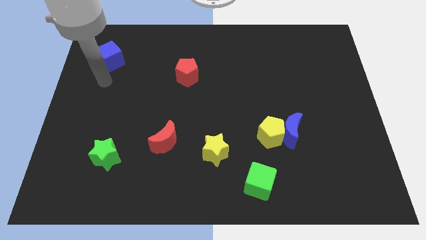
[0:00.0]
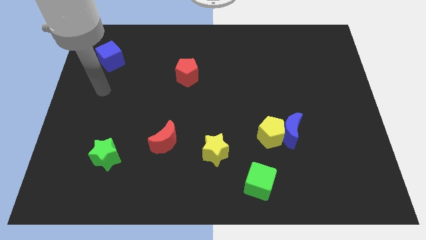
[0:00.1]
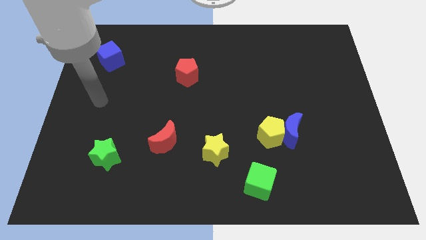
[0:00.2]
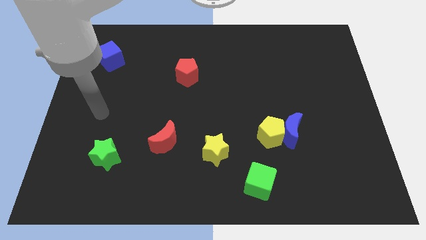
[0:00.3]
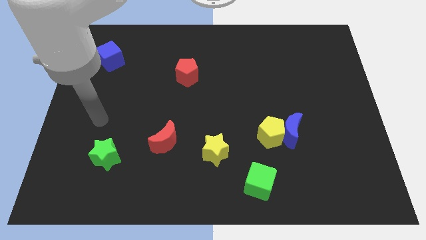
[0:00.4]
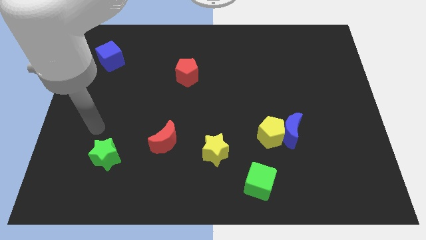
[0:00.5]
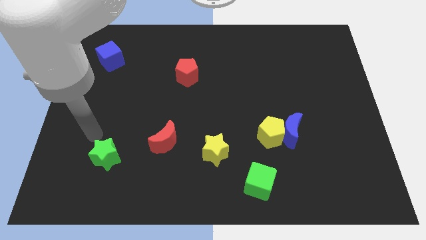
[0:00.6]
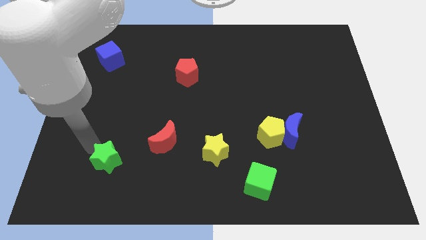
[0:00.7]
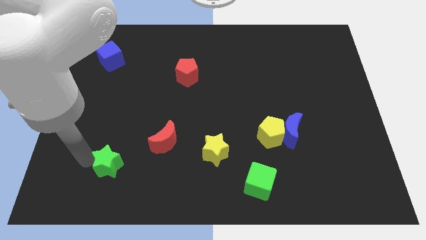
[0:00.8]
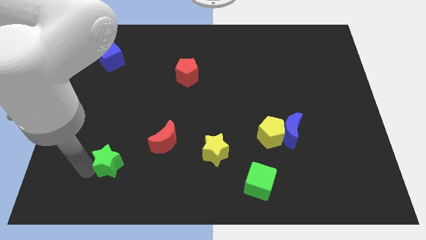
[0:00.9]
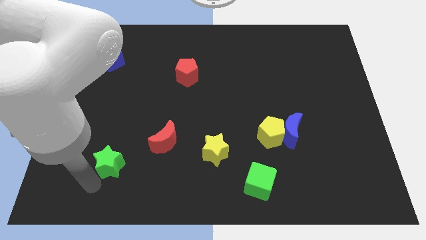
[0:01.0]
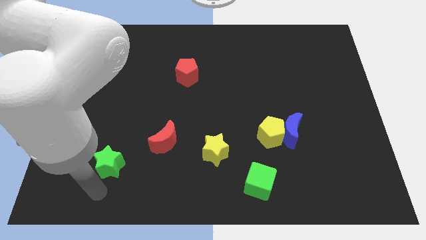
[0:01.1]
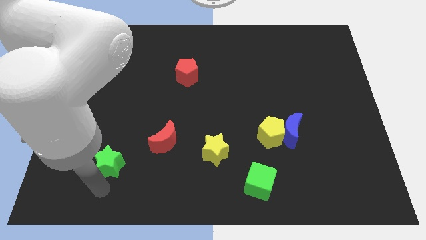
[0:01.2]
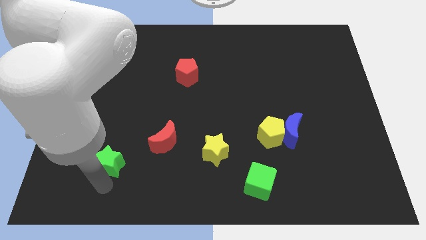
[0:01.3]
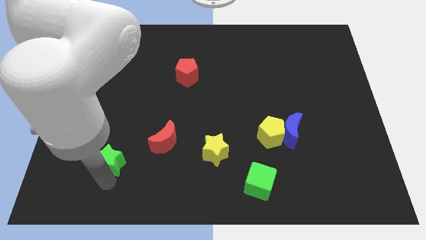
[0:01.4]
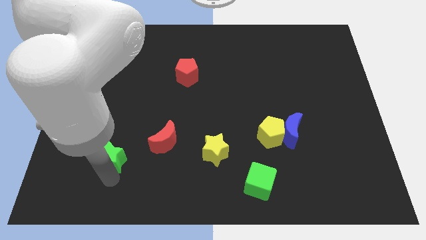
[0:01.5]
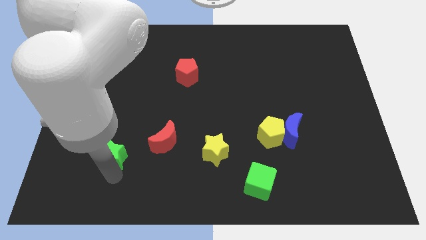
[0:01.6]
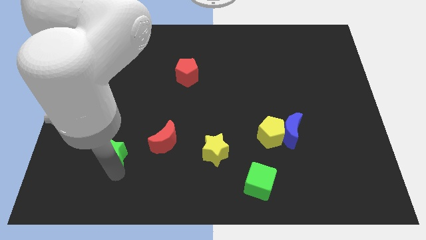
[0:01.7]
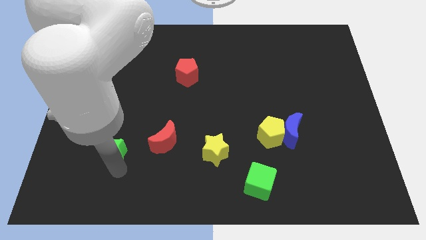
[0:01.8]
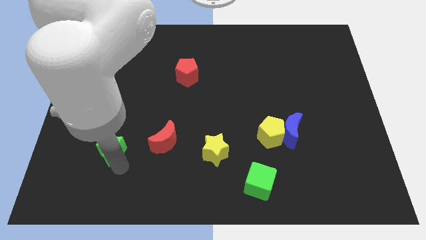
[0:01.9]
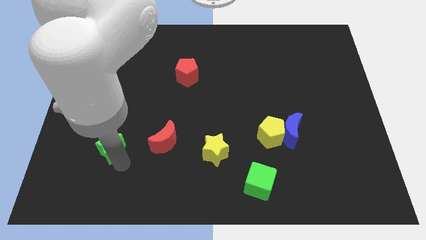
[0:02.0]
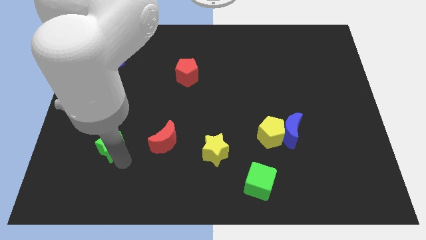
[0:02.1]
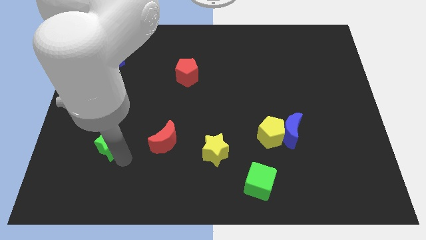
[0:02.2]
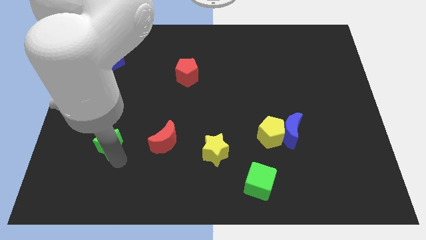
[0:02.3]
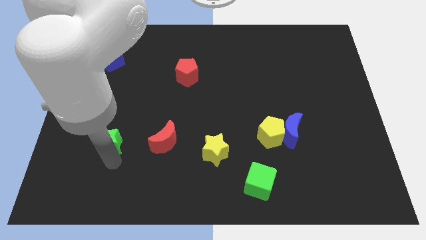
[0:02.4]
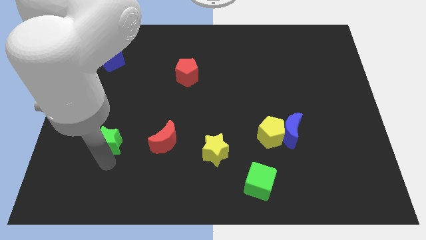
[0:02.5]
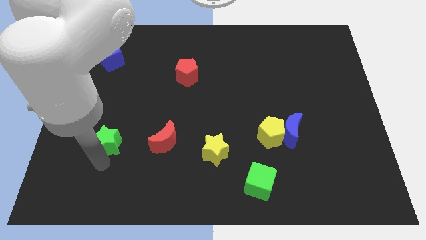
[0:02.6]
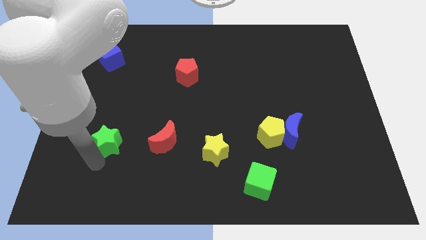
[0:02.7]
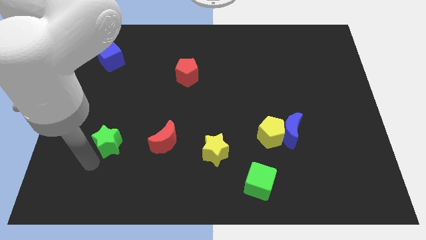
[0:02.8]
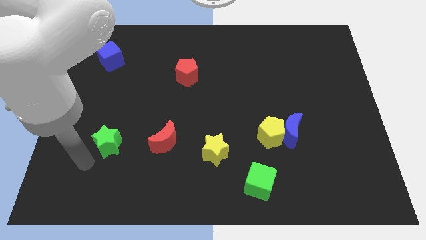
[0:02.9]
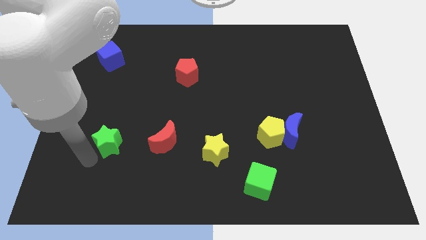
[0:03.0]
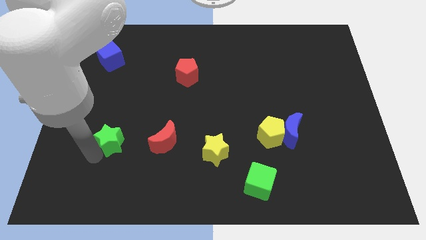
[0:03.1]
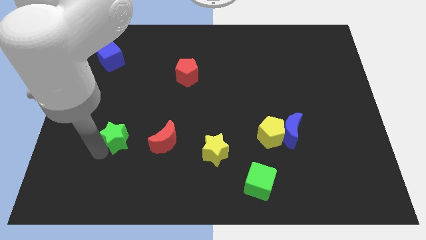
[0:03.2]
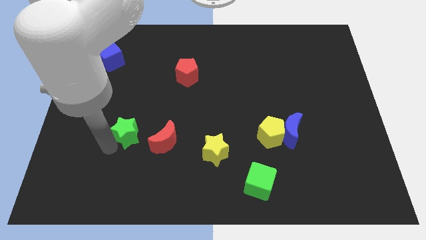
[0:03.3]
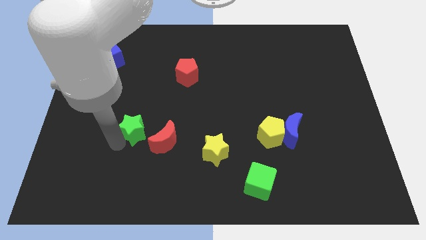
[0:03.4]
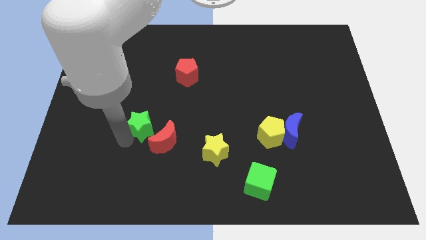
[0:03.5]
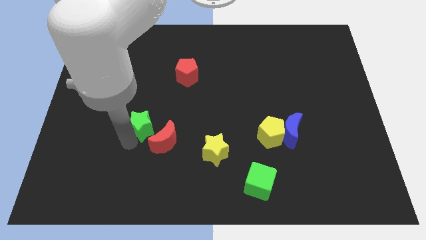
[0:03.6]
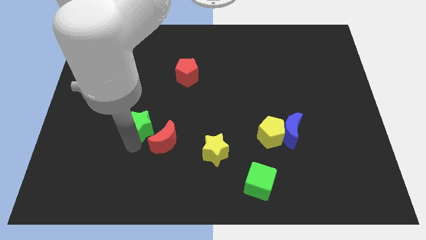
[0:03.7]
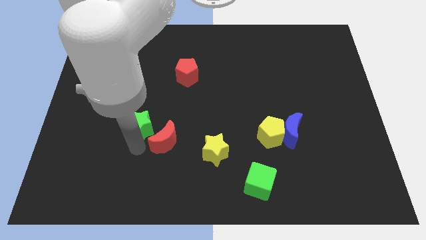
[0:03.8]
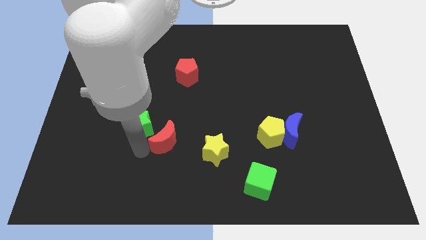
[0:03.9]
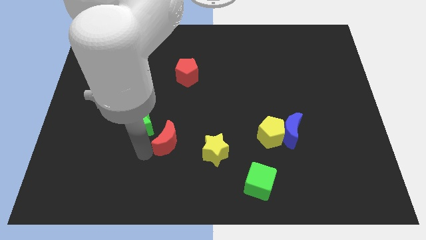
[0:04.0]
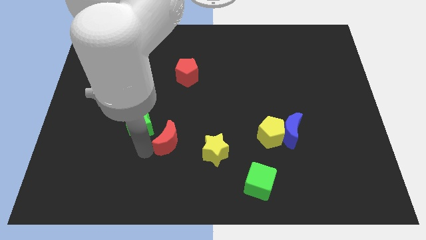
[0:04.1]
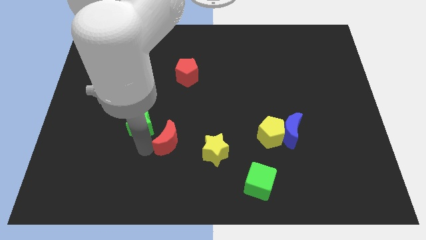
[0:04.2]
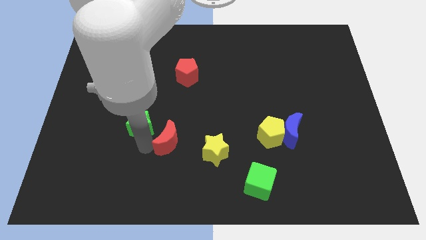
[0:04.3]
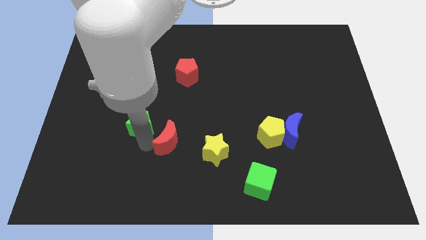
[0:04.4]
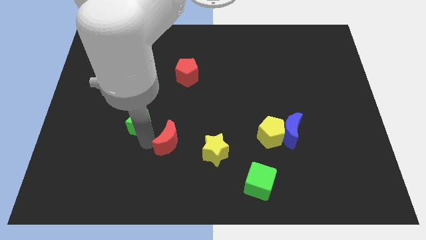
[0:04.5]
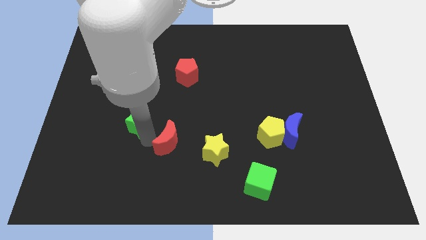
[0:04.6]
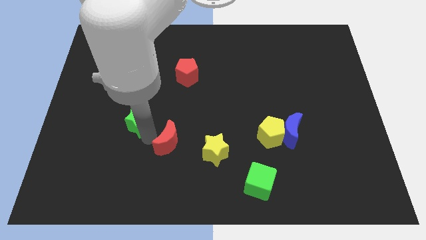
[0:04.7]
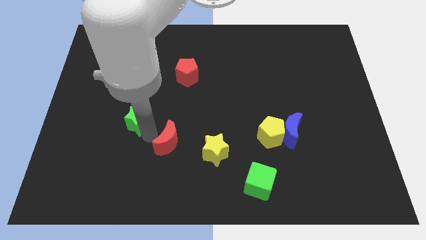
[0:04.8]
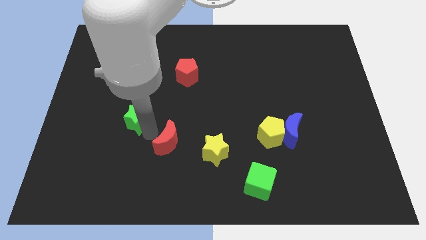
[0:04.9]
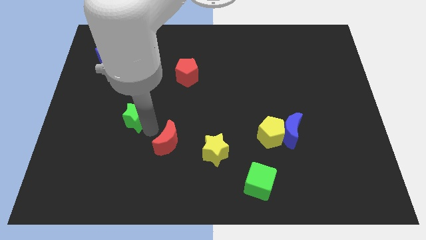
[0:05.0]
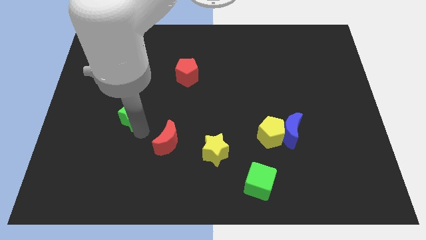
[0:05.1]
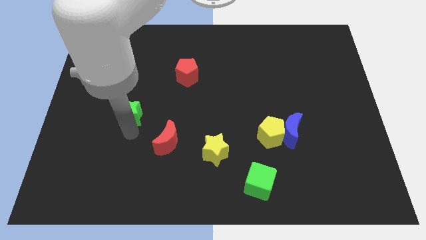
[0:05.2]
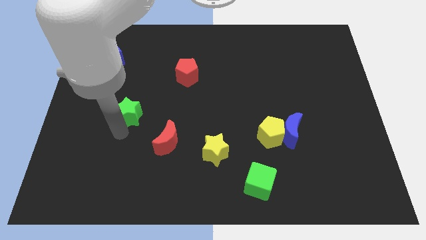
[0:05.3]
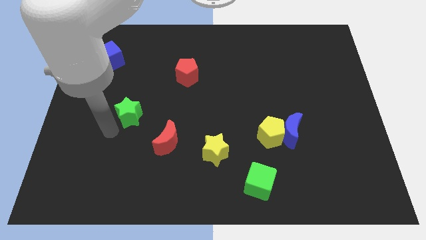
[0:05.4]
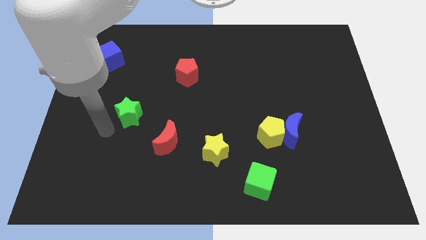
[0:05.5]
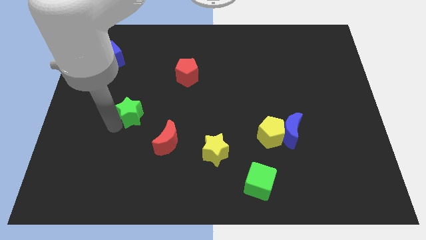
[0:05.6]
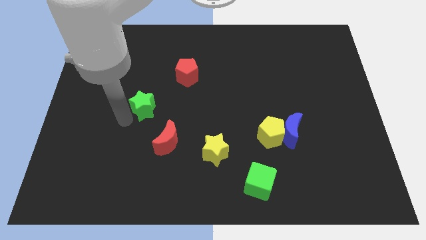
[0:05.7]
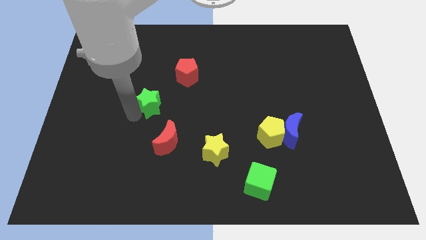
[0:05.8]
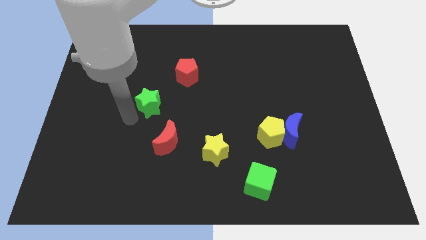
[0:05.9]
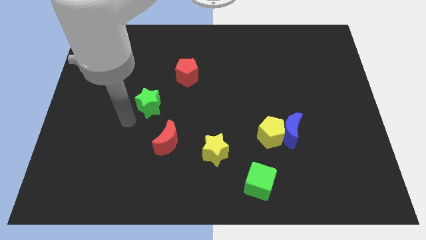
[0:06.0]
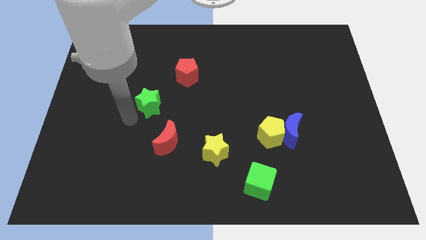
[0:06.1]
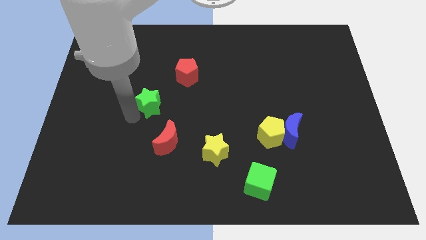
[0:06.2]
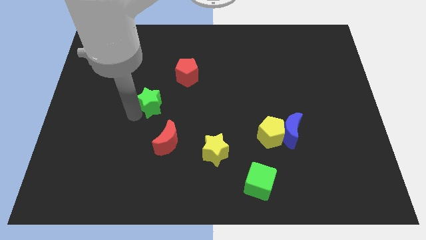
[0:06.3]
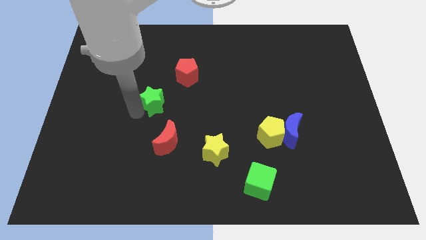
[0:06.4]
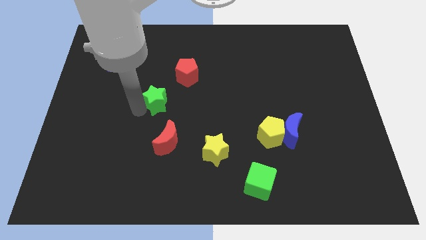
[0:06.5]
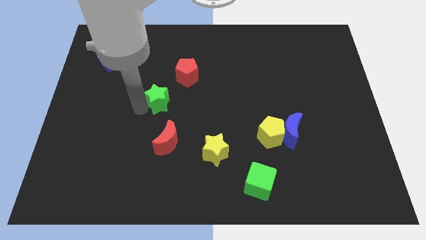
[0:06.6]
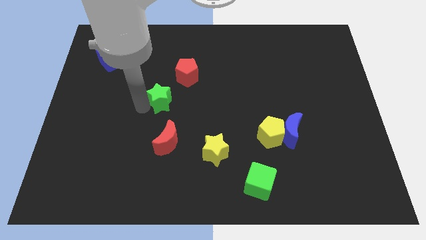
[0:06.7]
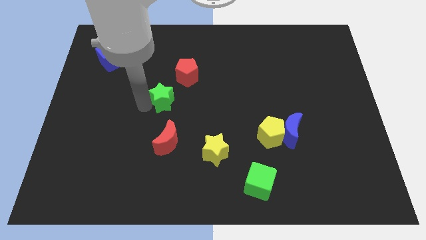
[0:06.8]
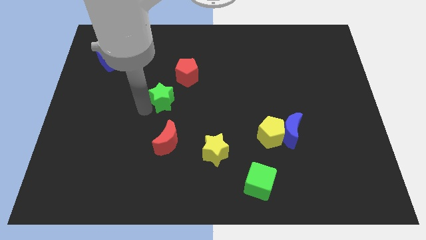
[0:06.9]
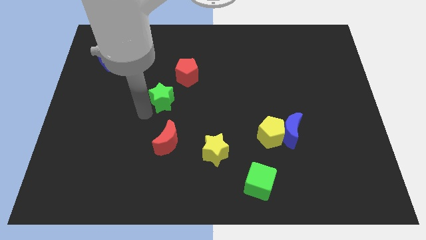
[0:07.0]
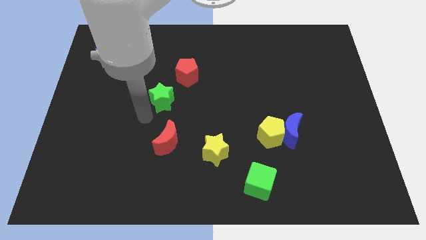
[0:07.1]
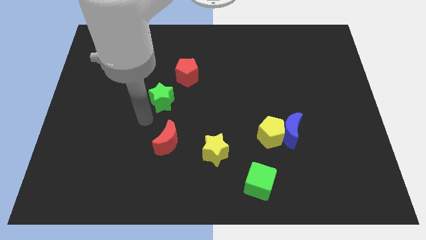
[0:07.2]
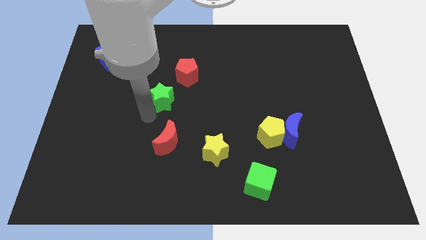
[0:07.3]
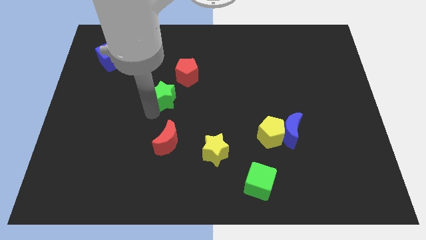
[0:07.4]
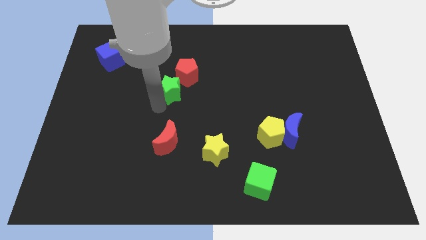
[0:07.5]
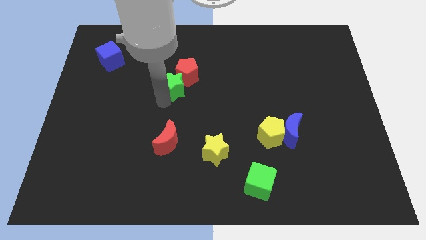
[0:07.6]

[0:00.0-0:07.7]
move the green star next to the red pentagon

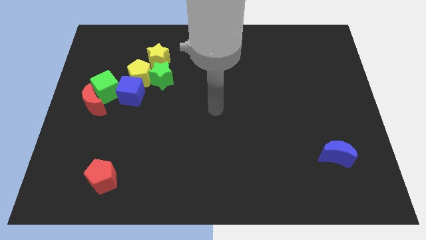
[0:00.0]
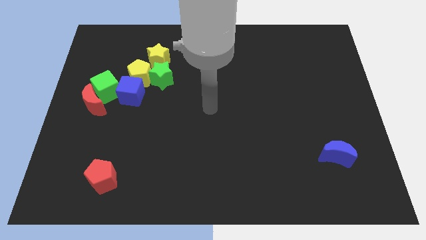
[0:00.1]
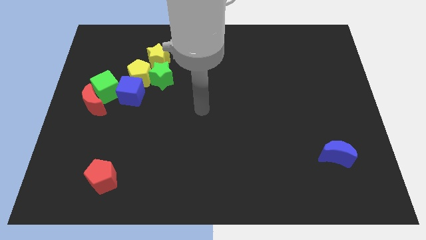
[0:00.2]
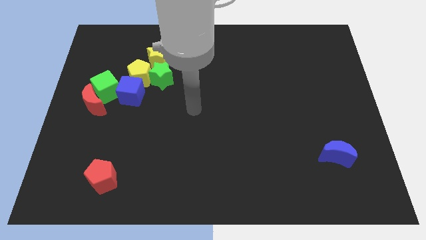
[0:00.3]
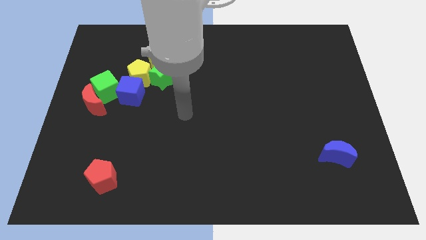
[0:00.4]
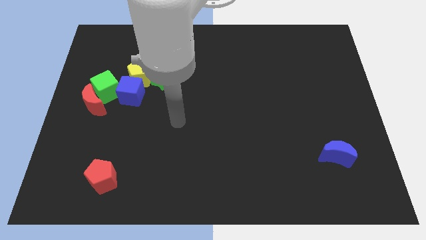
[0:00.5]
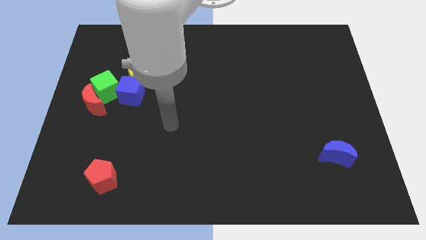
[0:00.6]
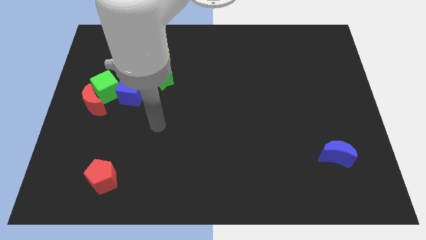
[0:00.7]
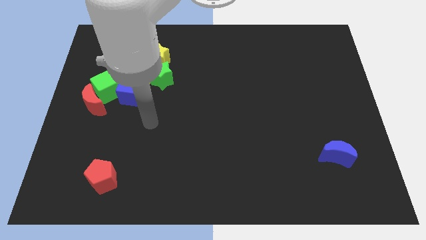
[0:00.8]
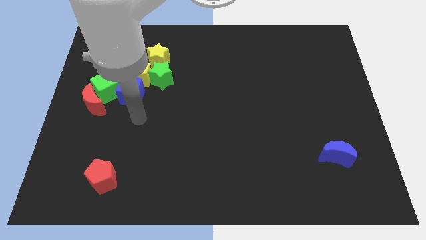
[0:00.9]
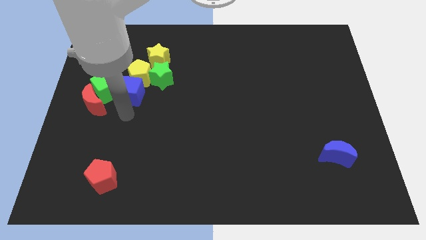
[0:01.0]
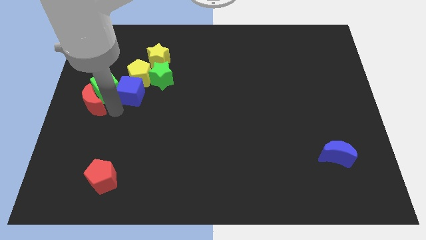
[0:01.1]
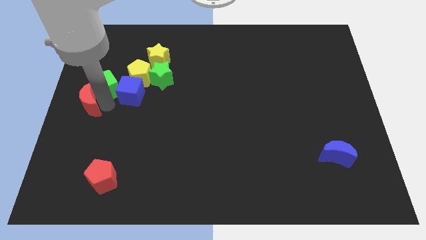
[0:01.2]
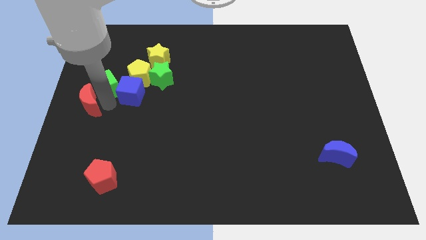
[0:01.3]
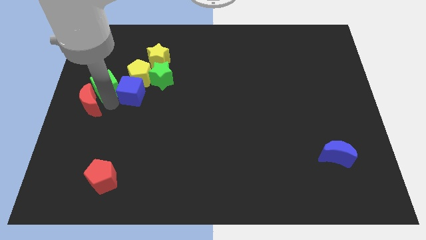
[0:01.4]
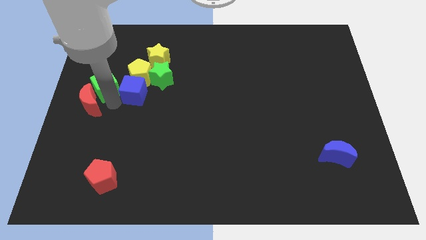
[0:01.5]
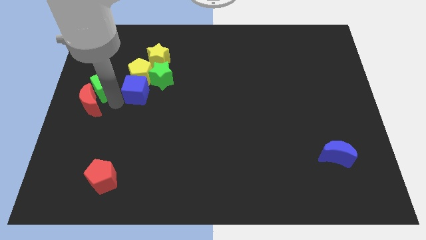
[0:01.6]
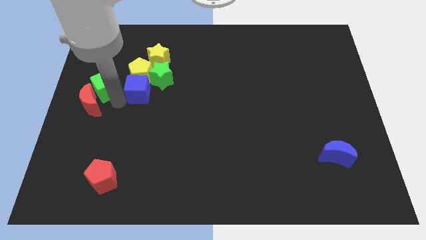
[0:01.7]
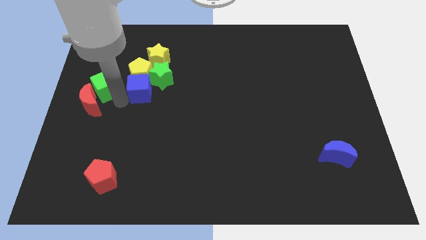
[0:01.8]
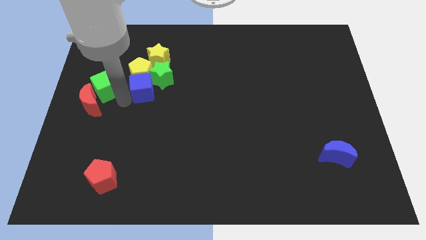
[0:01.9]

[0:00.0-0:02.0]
slide the blue cube towards the green star
